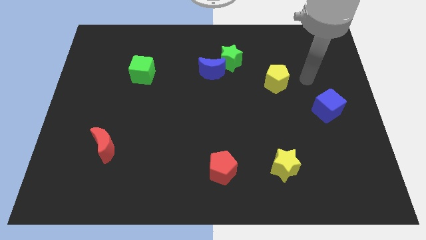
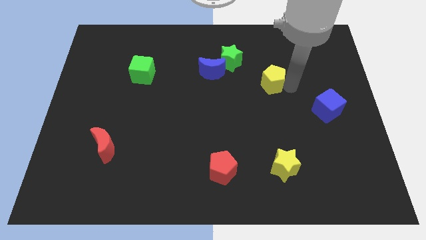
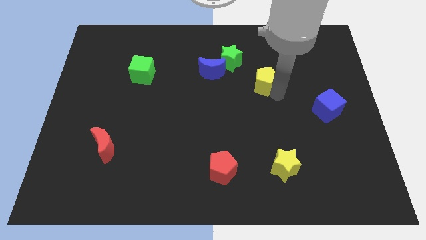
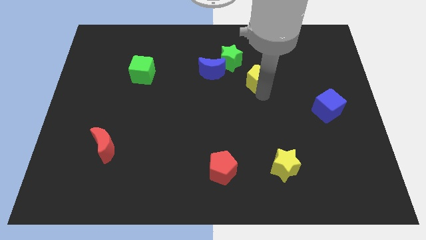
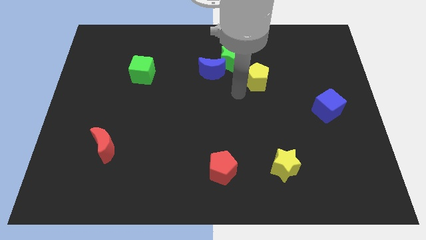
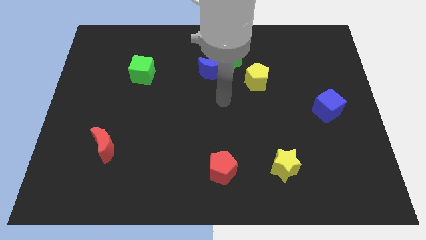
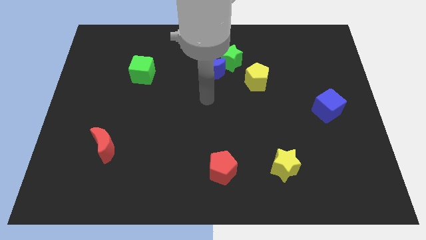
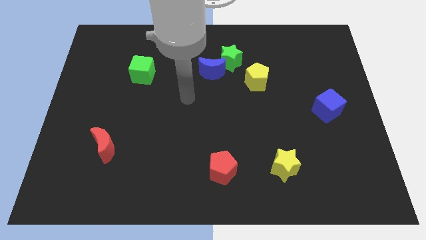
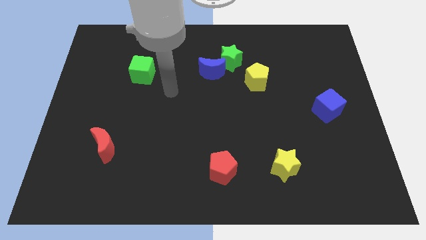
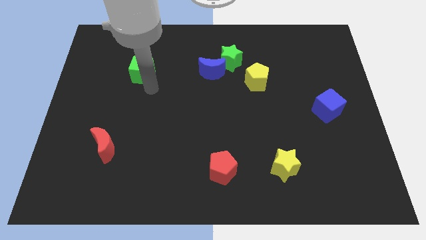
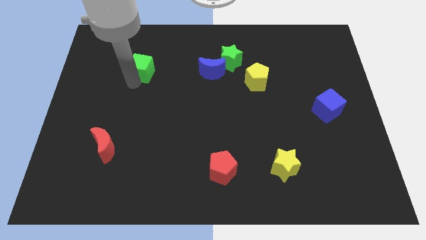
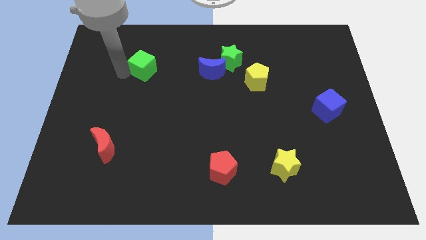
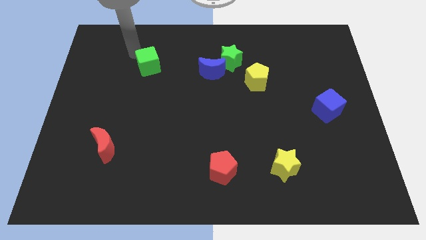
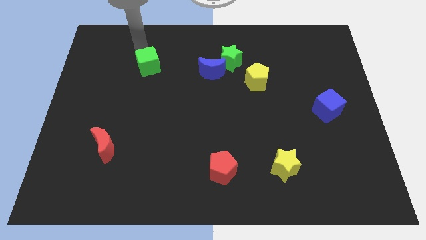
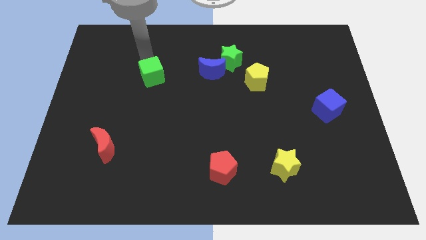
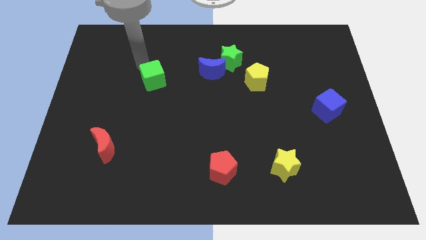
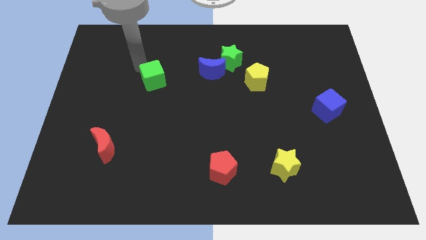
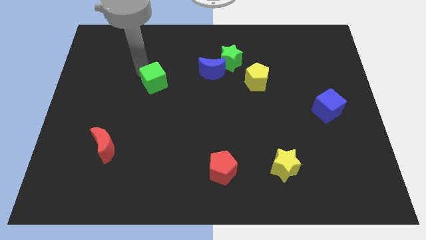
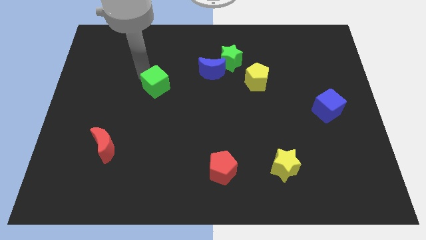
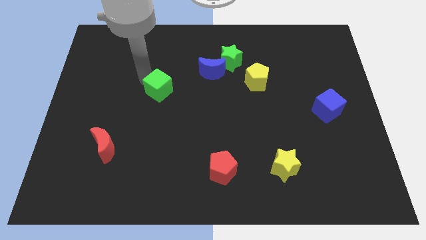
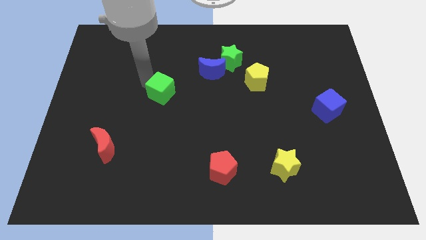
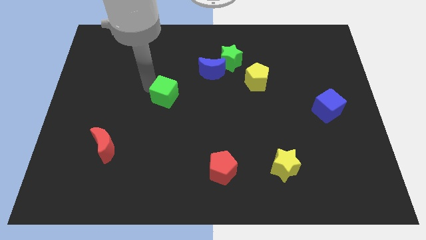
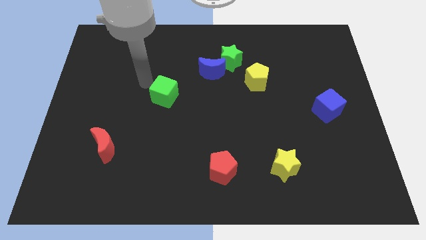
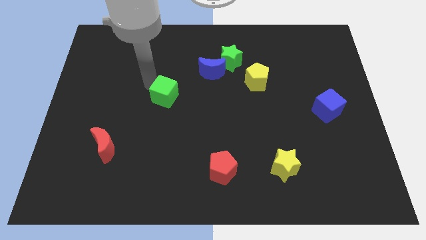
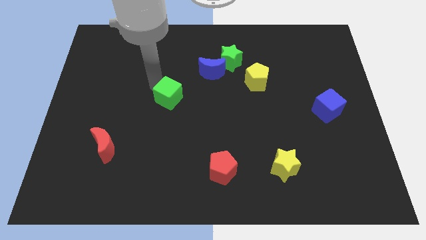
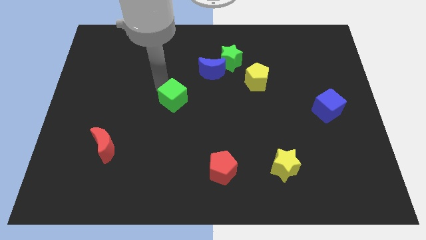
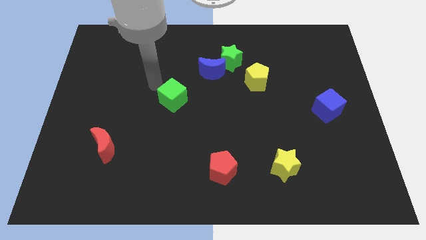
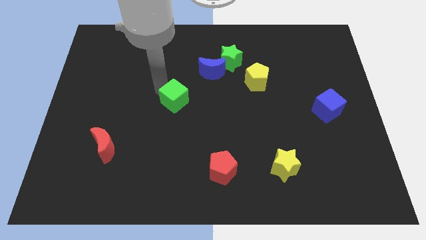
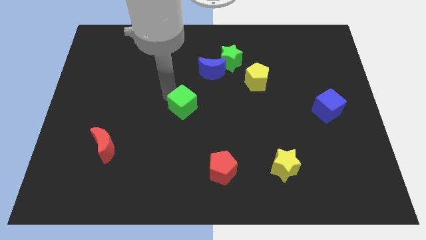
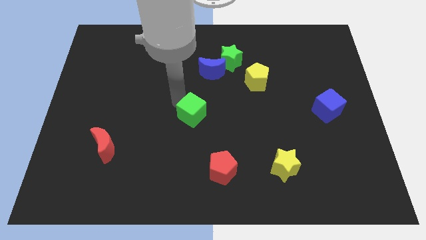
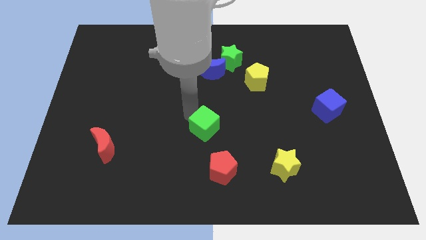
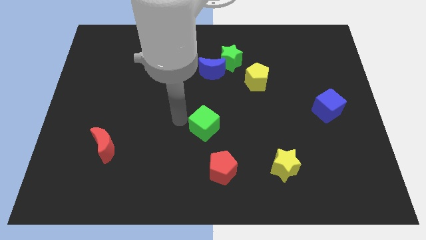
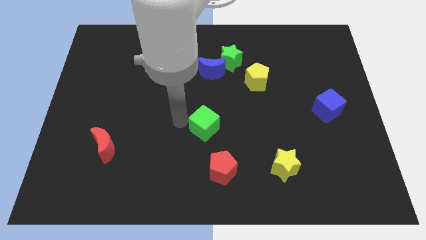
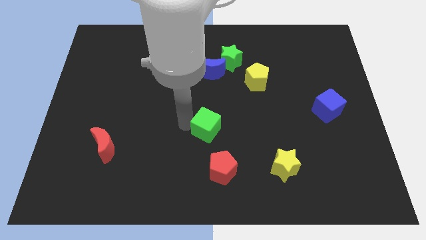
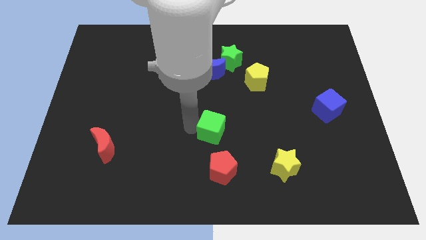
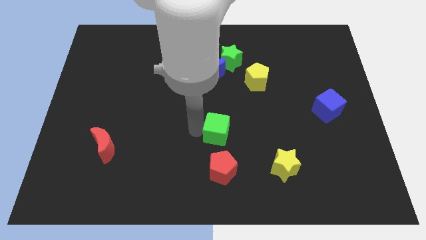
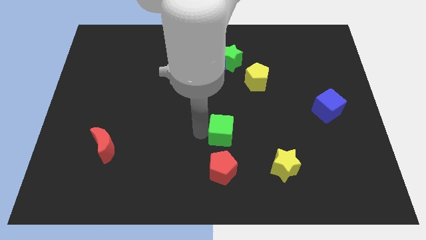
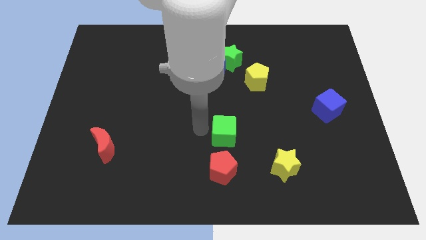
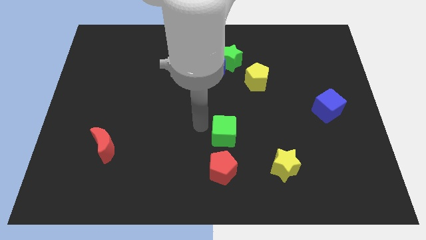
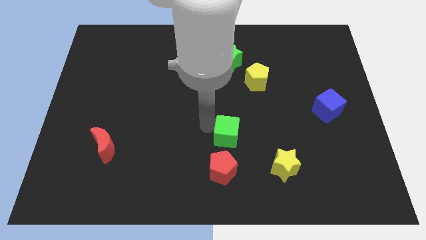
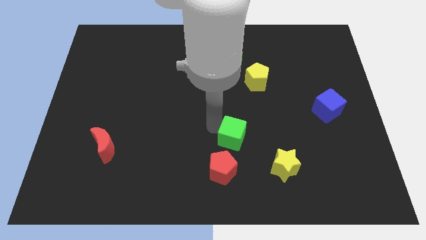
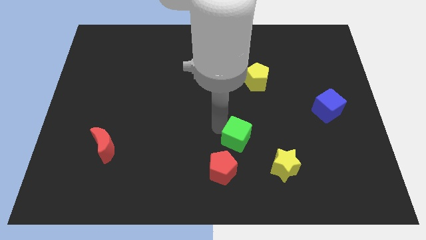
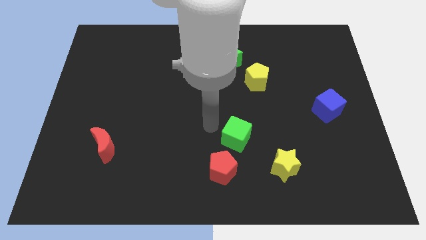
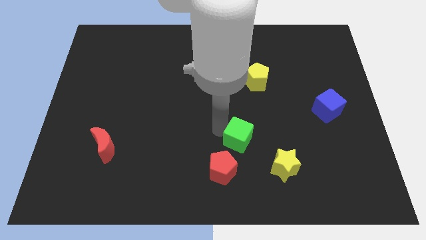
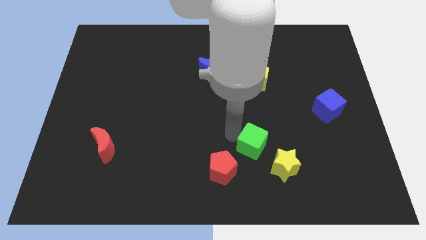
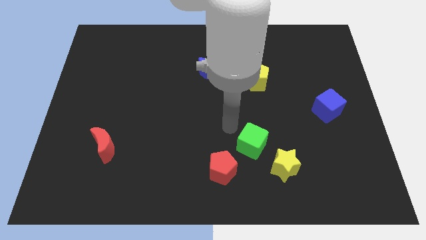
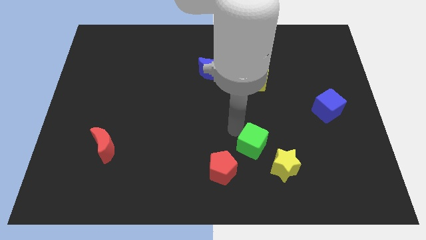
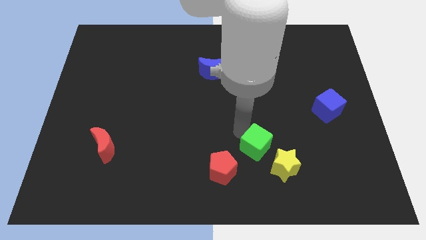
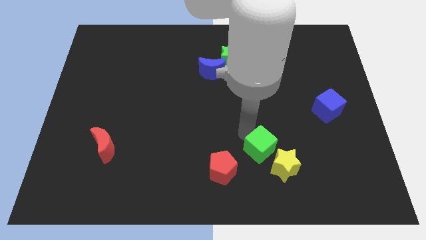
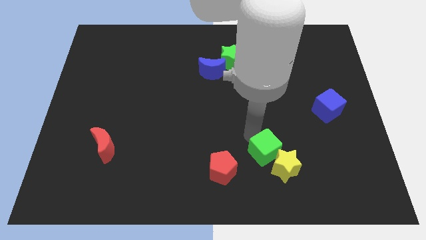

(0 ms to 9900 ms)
move the green cube close to the yellow star

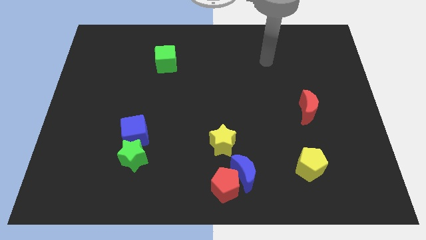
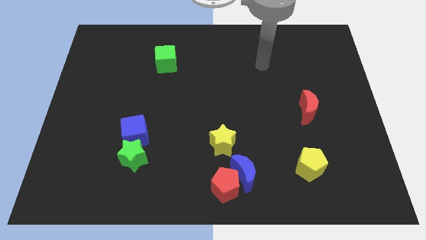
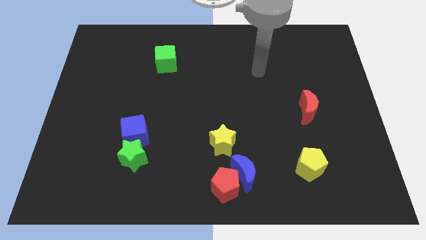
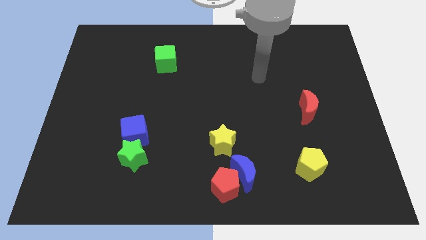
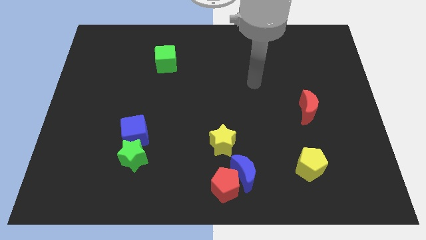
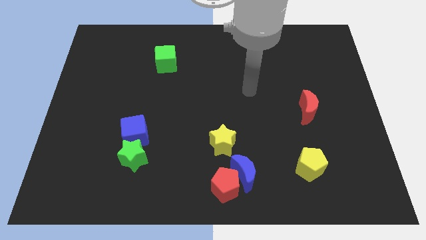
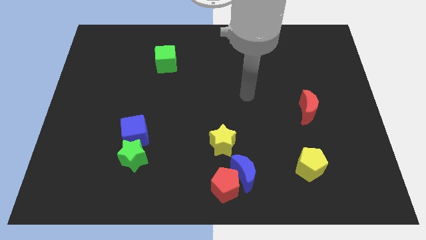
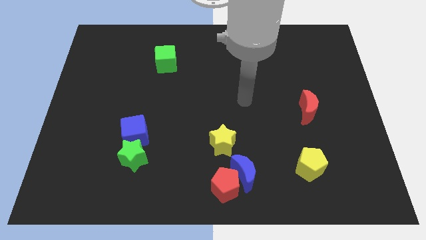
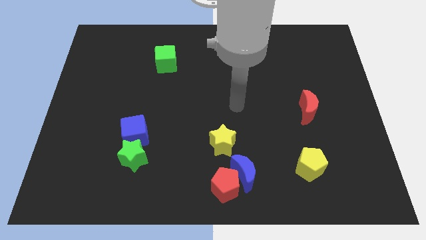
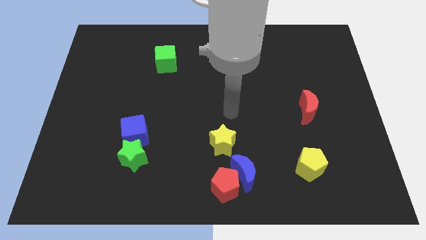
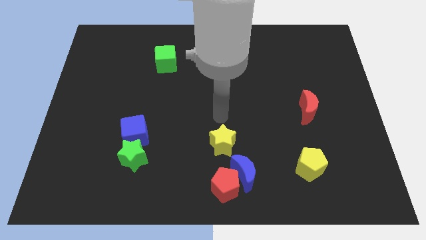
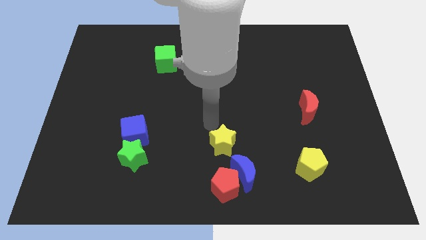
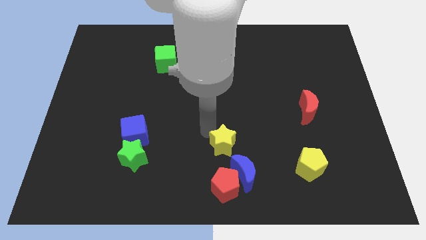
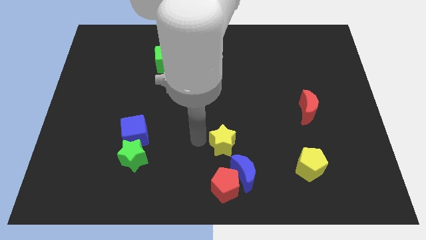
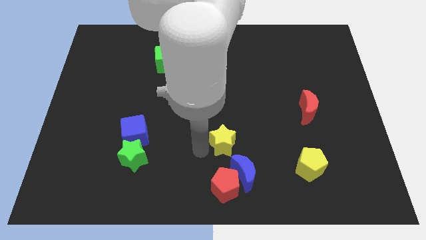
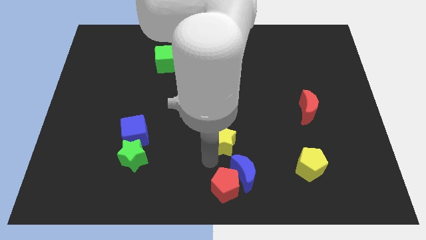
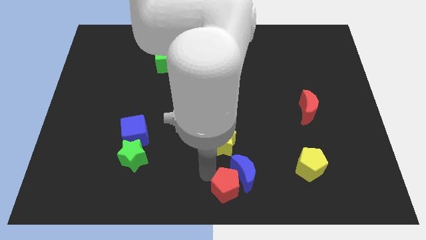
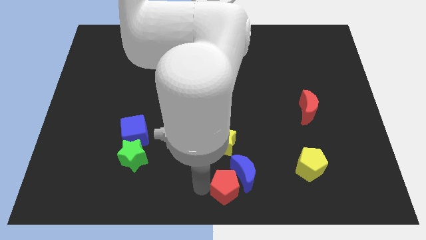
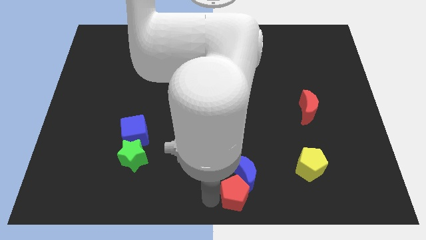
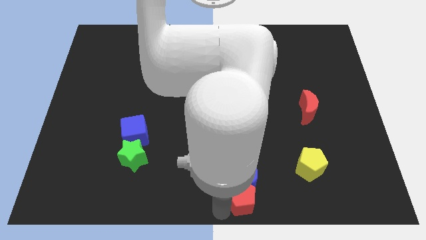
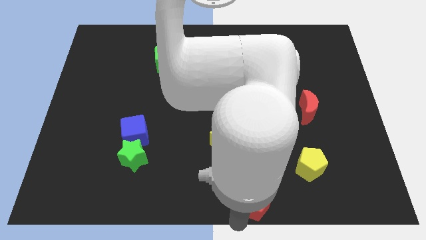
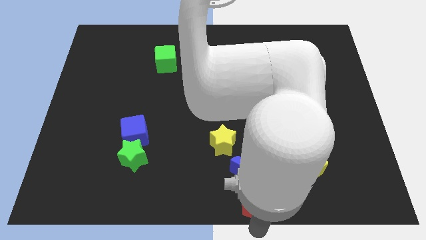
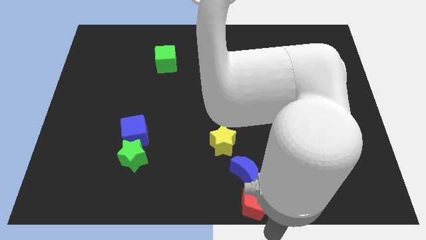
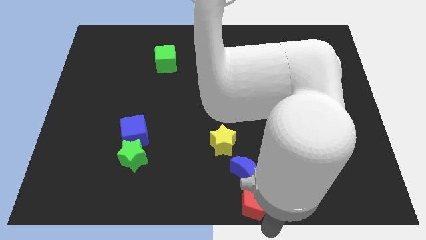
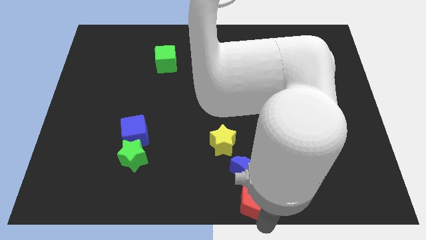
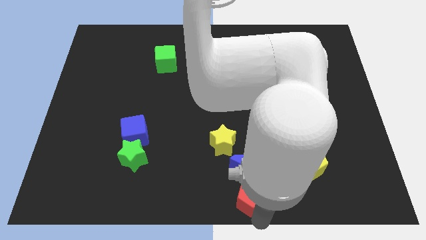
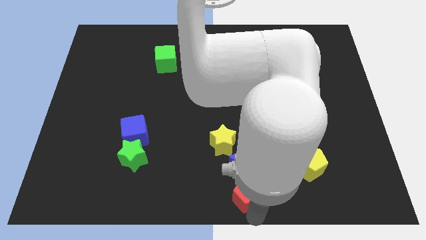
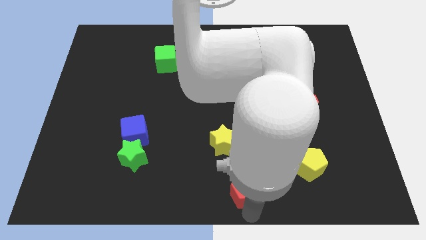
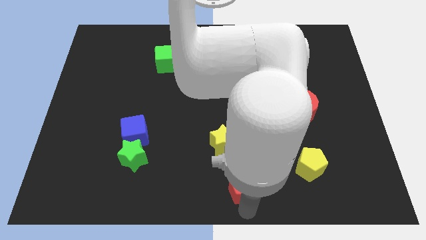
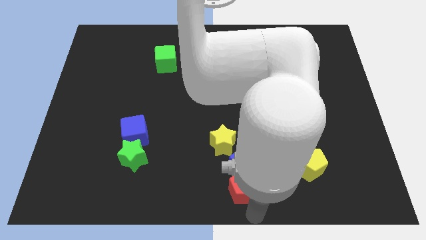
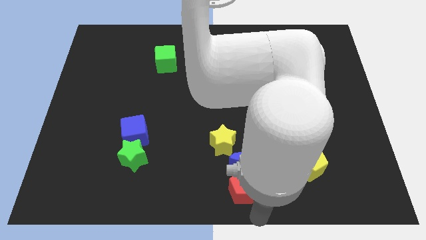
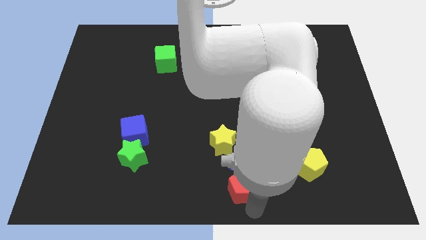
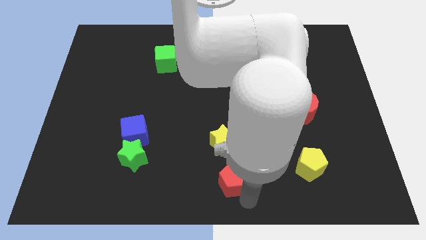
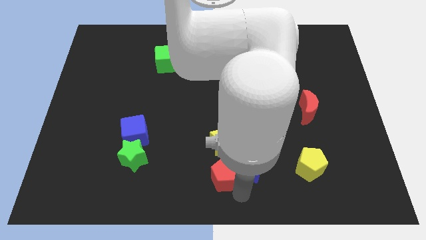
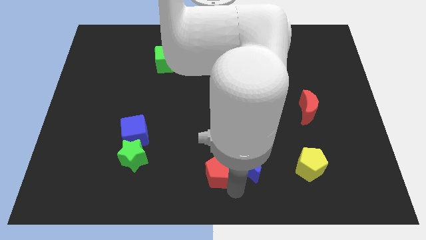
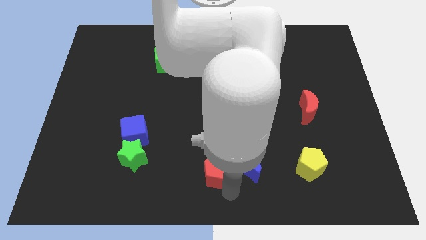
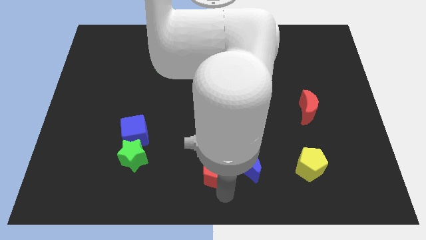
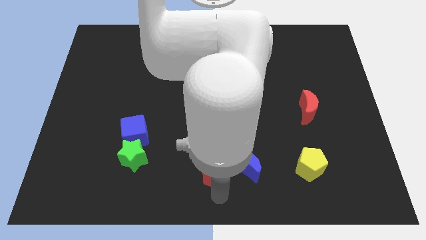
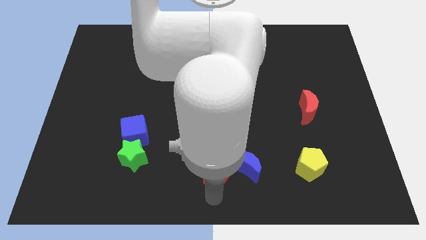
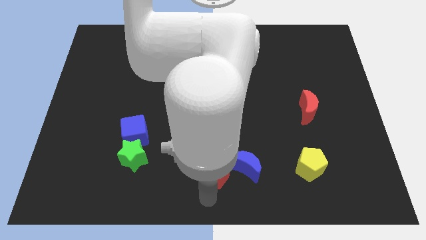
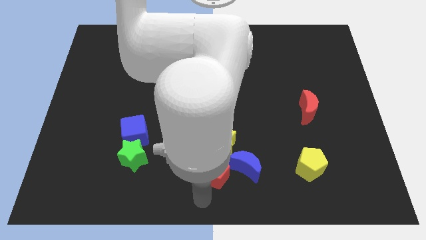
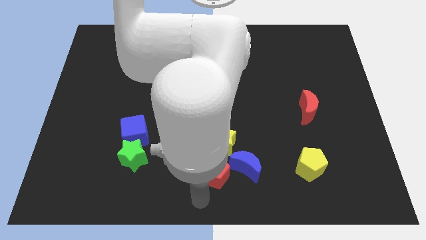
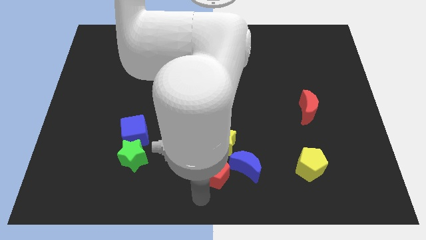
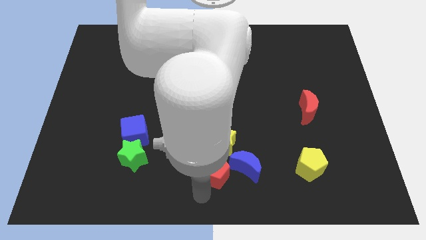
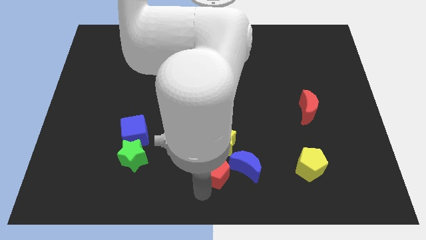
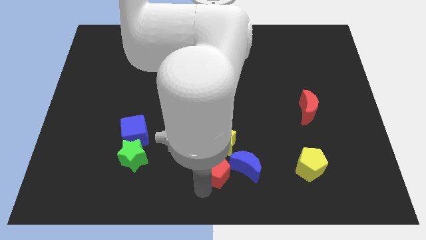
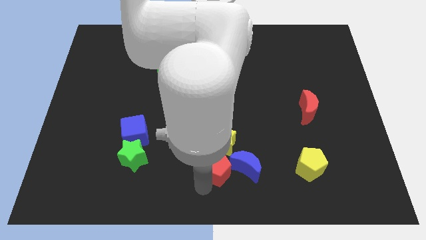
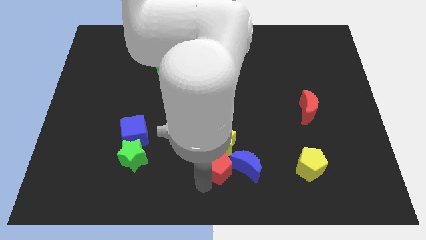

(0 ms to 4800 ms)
slide the red pentagon to the yellow star
